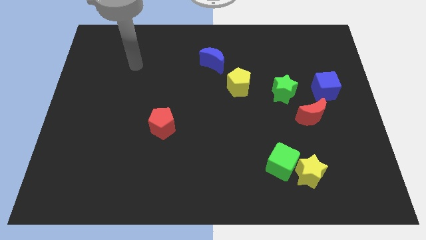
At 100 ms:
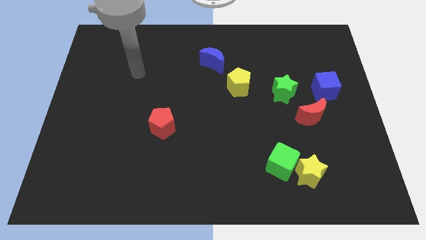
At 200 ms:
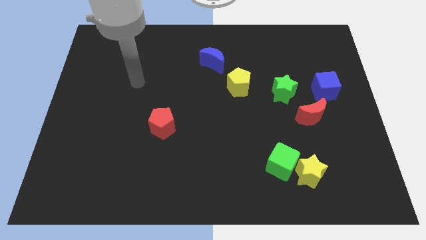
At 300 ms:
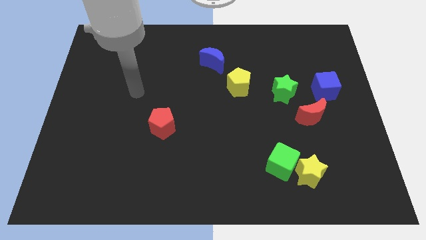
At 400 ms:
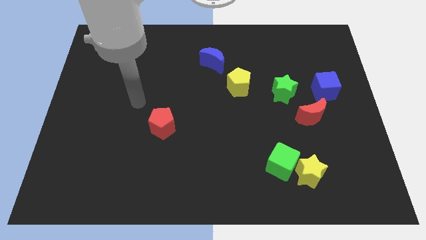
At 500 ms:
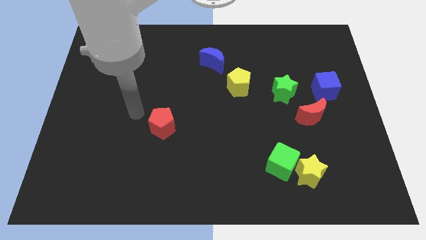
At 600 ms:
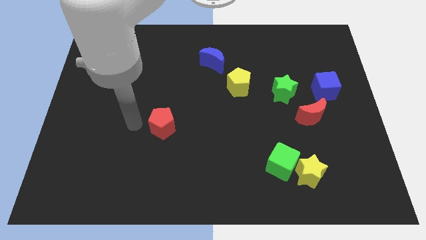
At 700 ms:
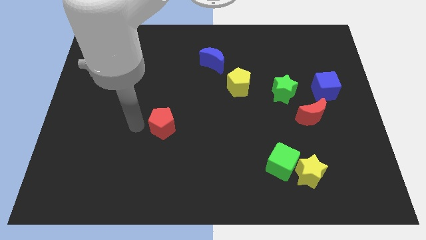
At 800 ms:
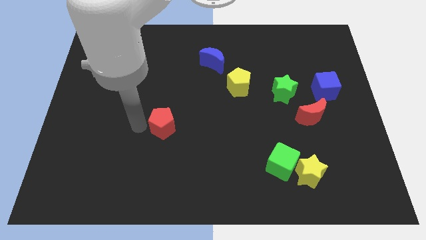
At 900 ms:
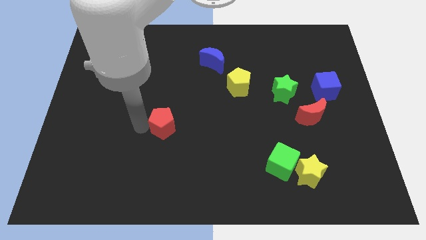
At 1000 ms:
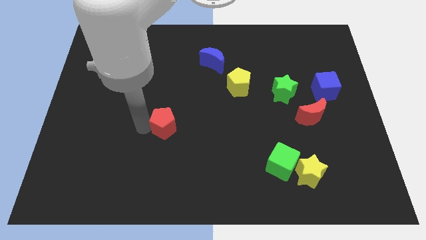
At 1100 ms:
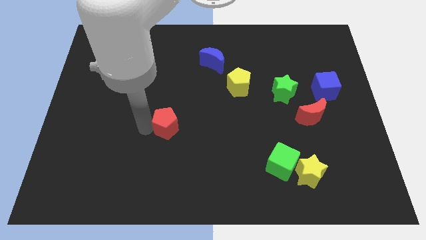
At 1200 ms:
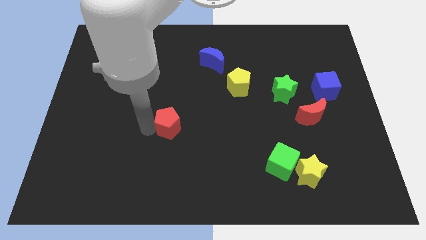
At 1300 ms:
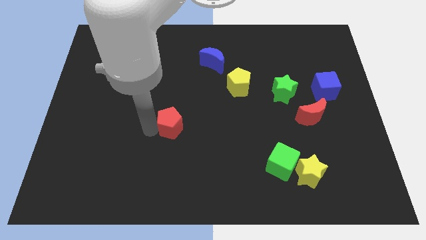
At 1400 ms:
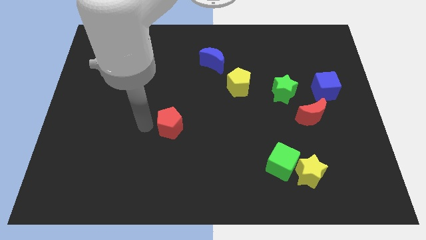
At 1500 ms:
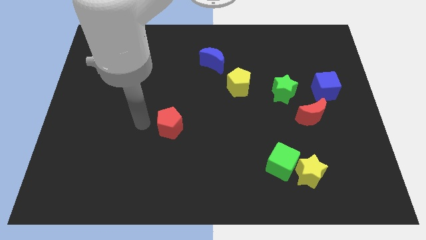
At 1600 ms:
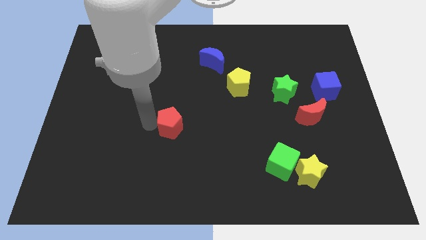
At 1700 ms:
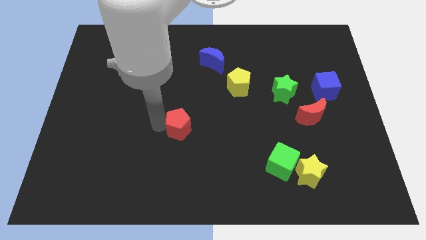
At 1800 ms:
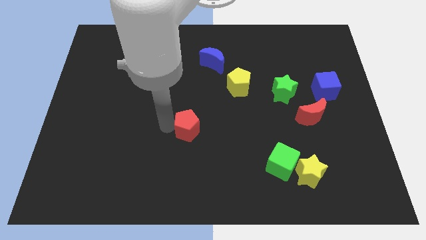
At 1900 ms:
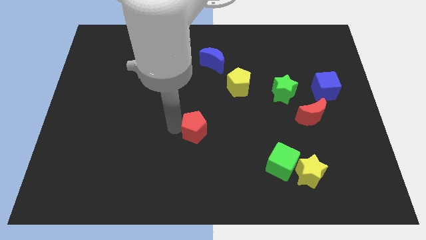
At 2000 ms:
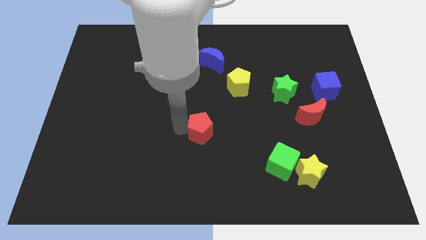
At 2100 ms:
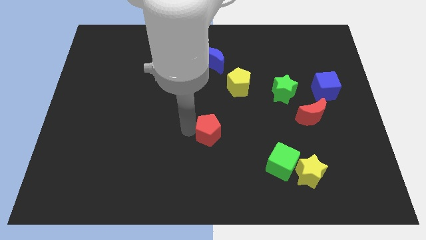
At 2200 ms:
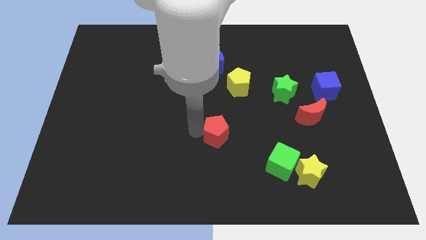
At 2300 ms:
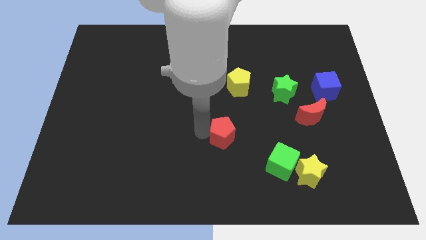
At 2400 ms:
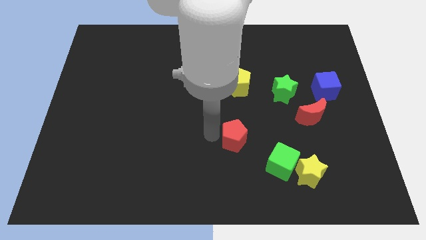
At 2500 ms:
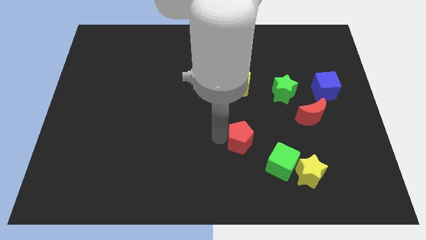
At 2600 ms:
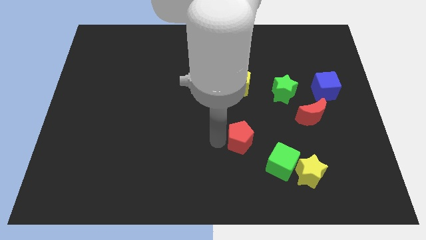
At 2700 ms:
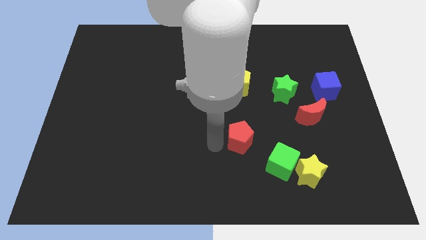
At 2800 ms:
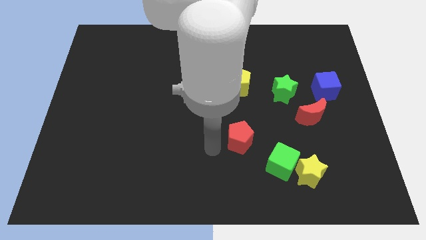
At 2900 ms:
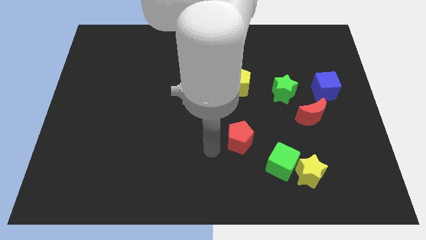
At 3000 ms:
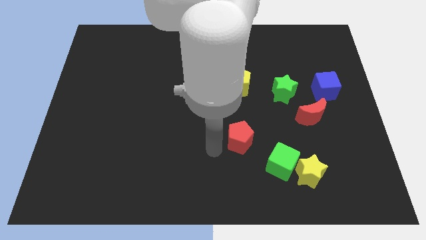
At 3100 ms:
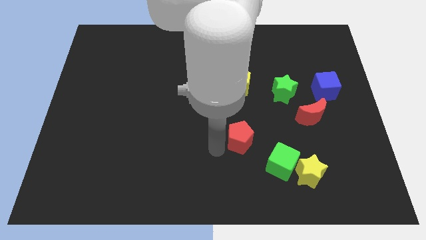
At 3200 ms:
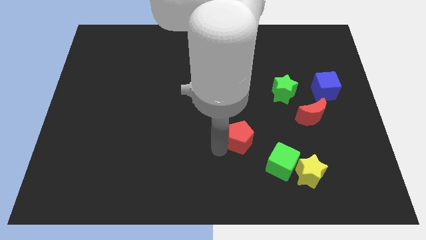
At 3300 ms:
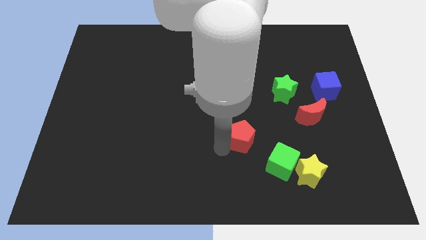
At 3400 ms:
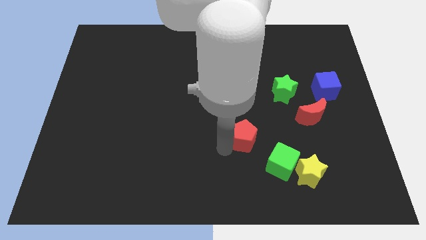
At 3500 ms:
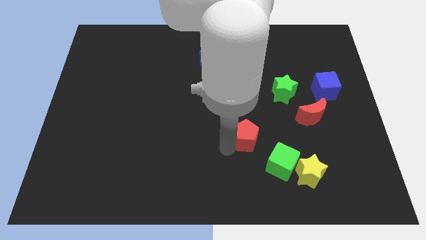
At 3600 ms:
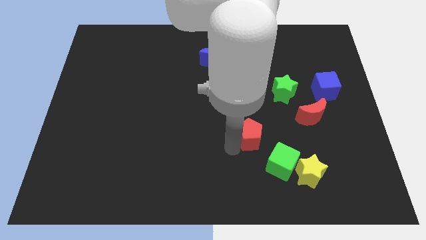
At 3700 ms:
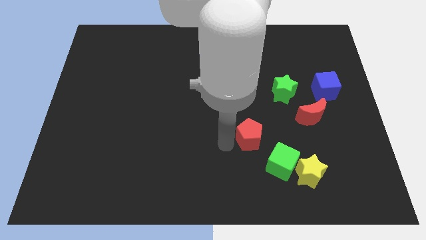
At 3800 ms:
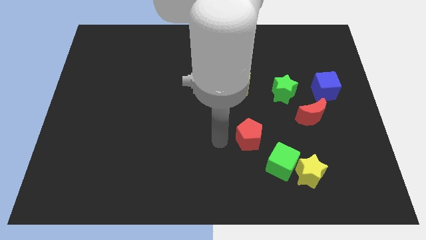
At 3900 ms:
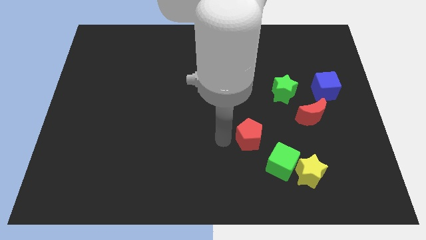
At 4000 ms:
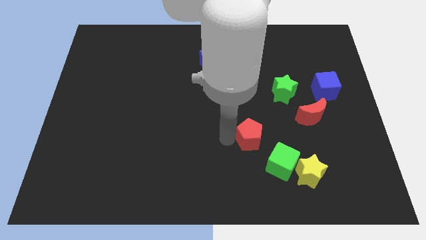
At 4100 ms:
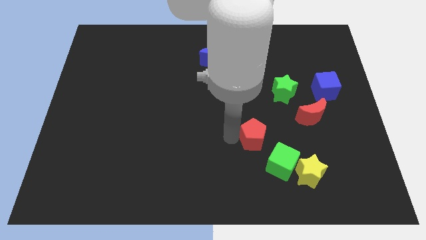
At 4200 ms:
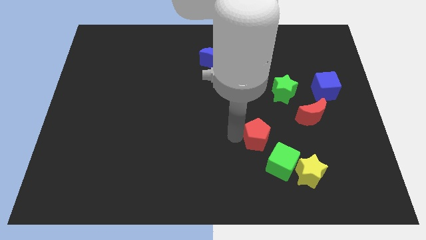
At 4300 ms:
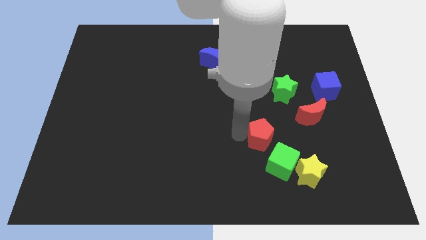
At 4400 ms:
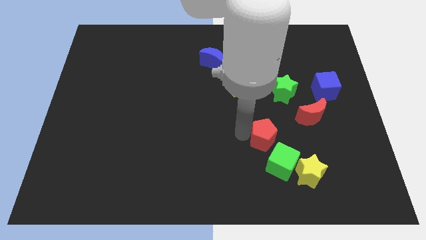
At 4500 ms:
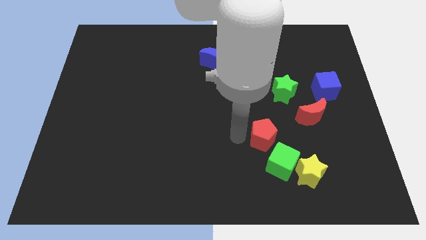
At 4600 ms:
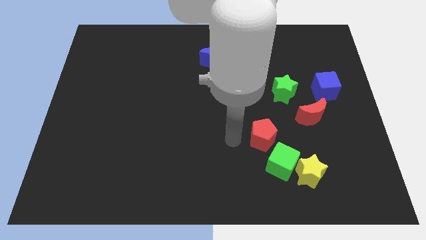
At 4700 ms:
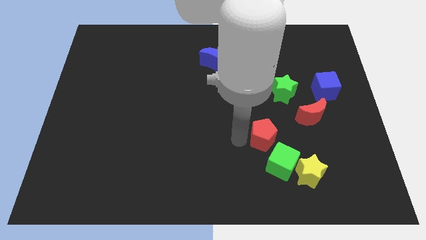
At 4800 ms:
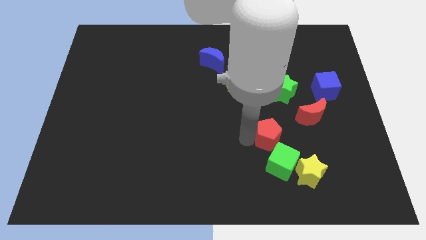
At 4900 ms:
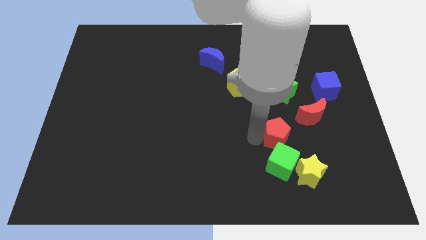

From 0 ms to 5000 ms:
push the red pentagon to the bottom left side of the red moon
